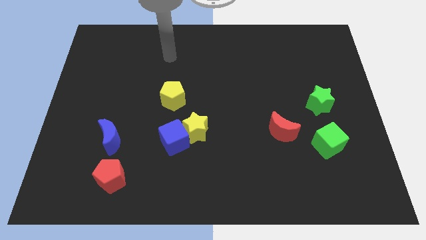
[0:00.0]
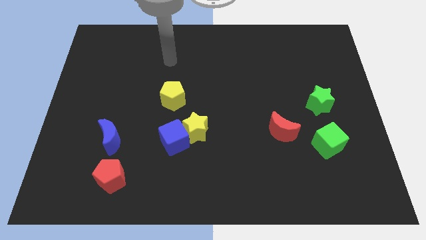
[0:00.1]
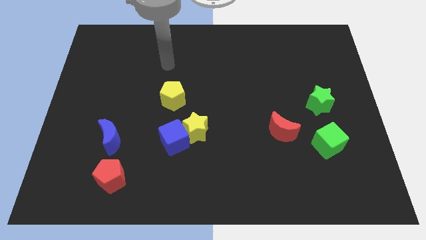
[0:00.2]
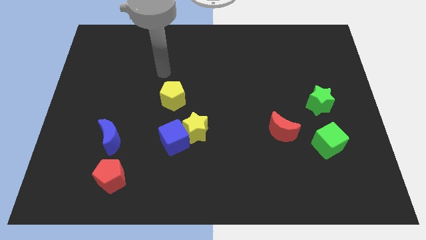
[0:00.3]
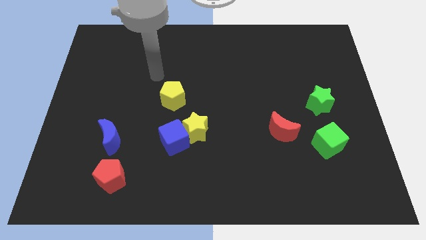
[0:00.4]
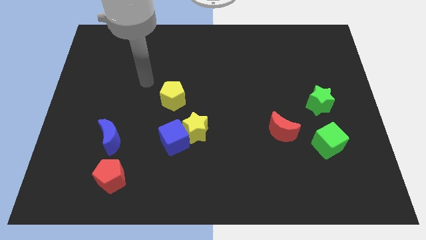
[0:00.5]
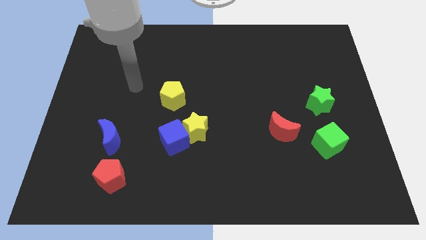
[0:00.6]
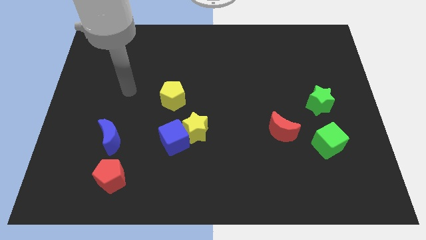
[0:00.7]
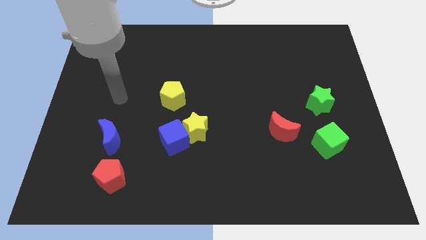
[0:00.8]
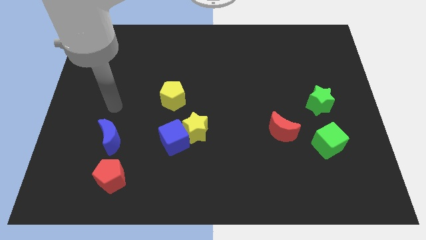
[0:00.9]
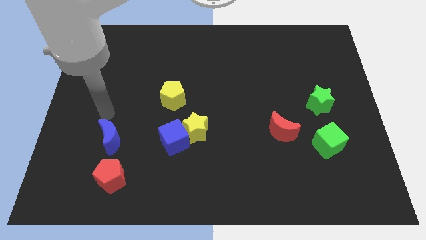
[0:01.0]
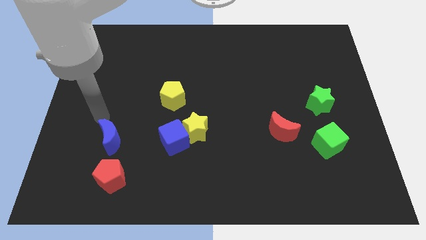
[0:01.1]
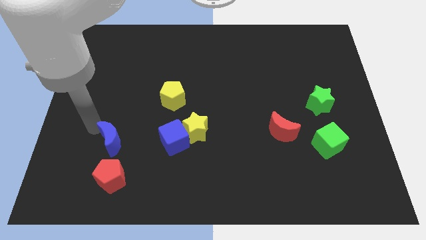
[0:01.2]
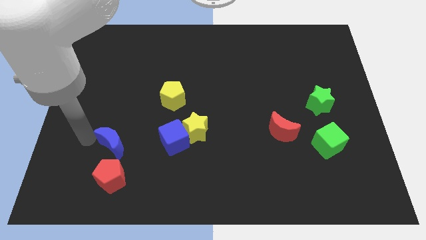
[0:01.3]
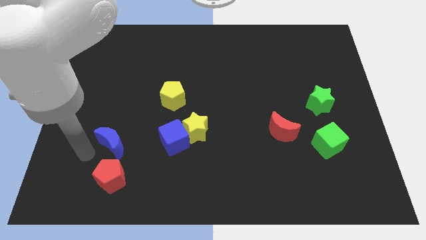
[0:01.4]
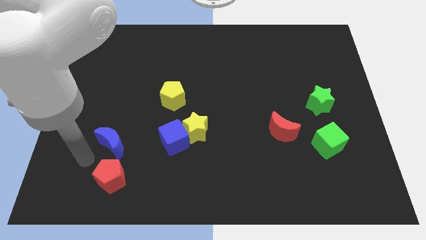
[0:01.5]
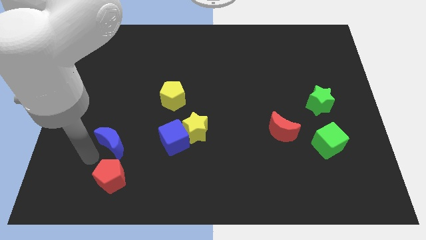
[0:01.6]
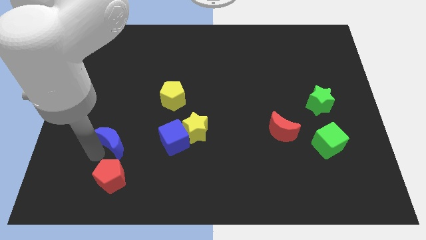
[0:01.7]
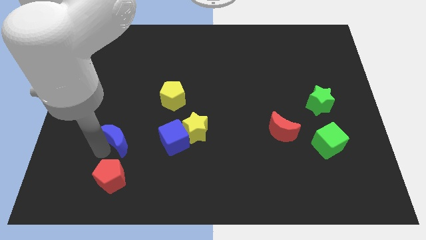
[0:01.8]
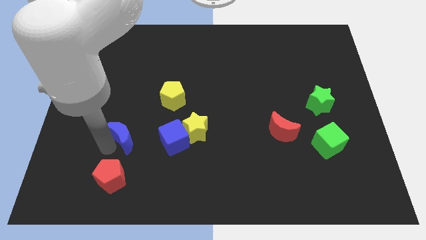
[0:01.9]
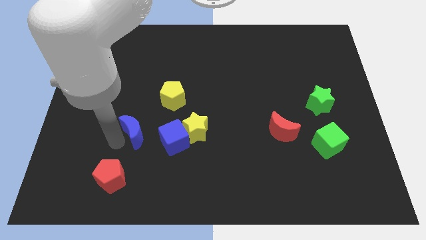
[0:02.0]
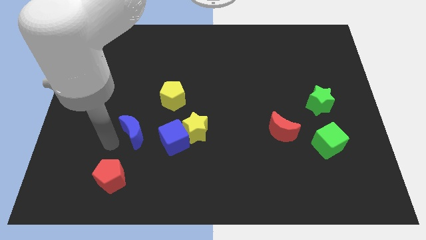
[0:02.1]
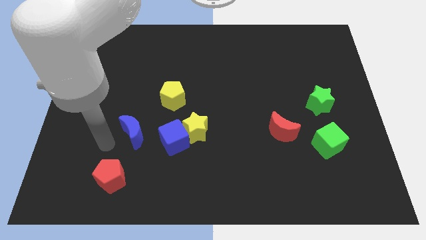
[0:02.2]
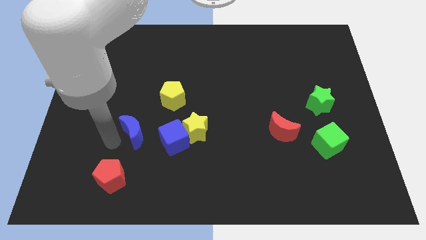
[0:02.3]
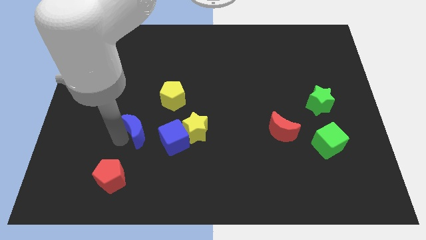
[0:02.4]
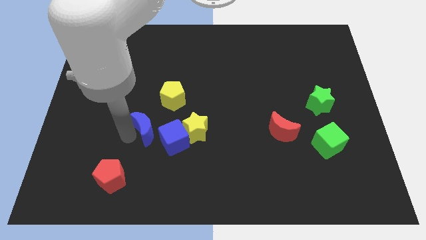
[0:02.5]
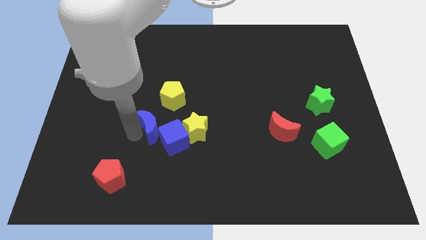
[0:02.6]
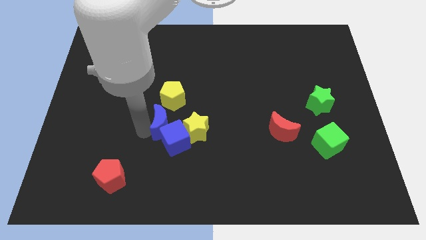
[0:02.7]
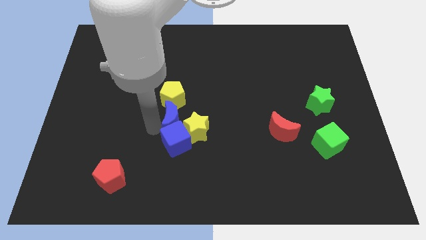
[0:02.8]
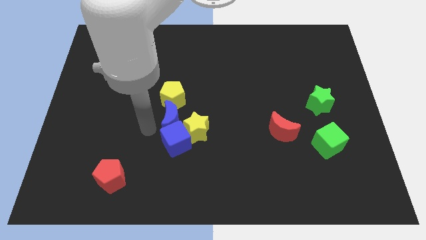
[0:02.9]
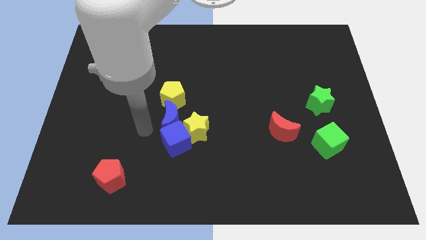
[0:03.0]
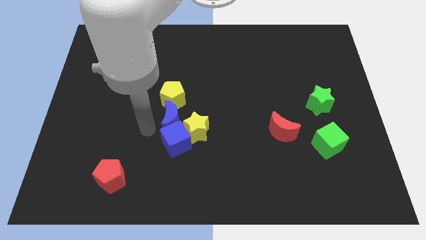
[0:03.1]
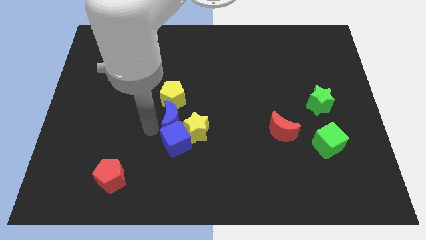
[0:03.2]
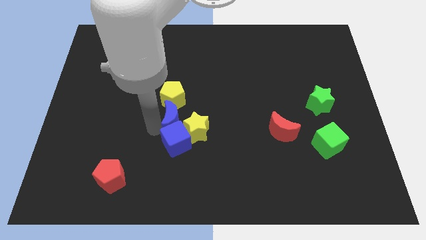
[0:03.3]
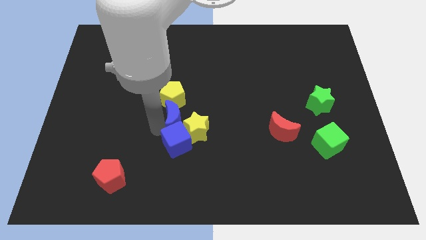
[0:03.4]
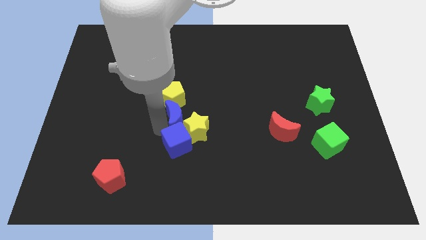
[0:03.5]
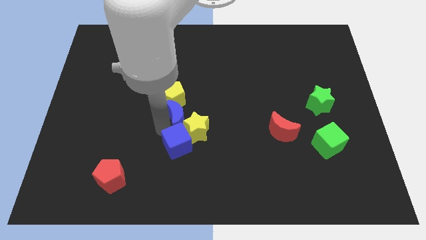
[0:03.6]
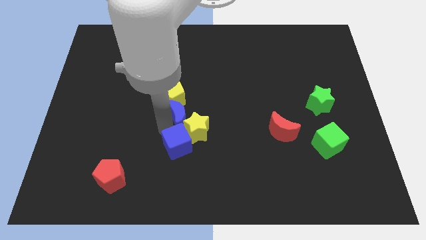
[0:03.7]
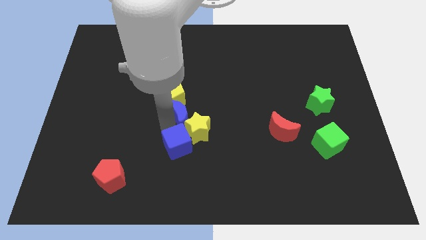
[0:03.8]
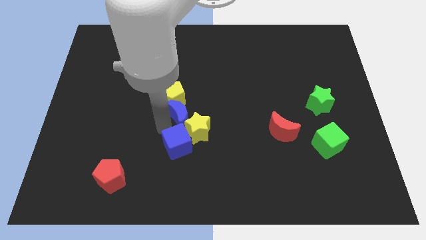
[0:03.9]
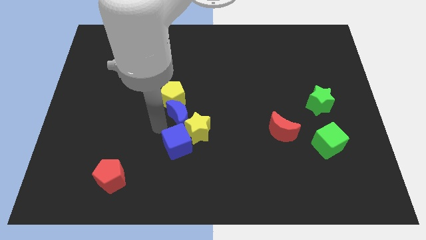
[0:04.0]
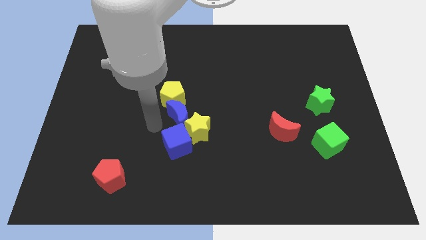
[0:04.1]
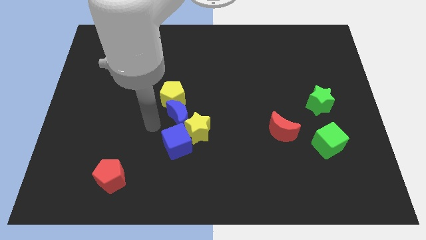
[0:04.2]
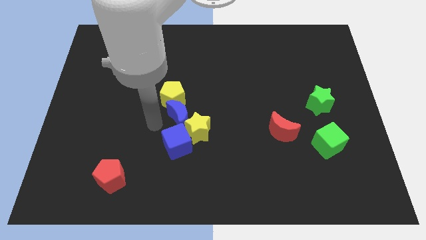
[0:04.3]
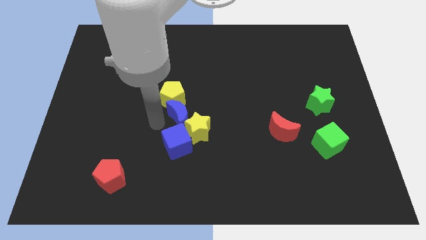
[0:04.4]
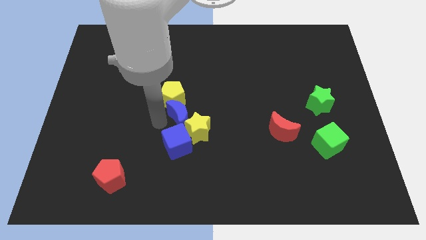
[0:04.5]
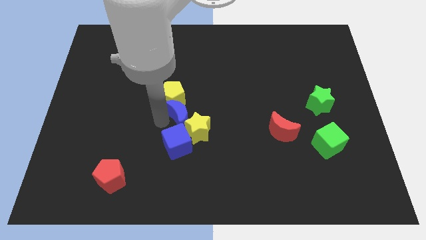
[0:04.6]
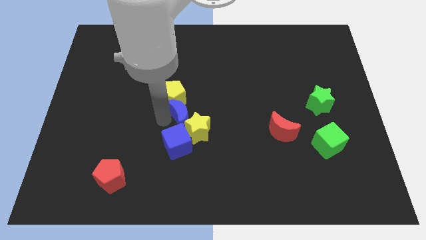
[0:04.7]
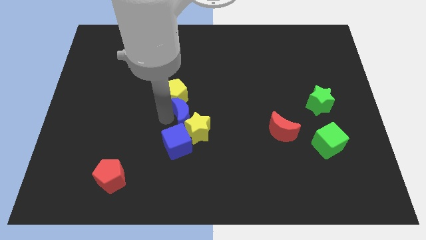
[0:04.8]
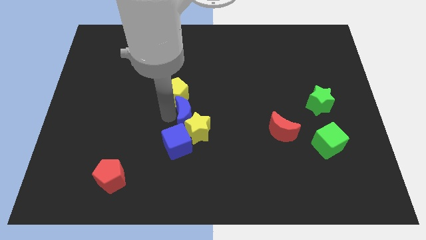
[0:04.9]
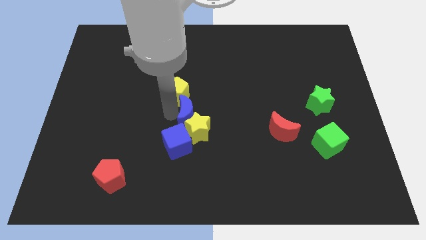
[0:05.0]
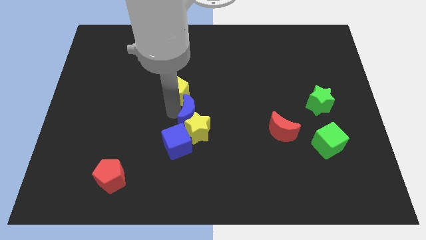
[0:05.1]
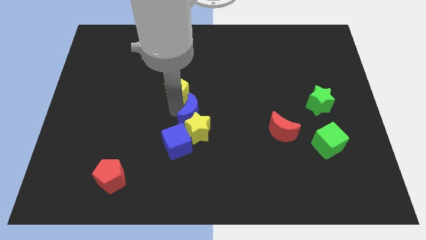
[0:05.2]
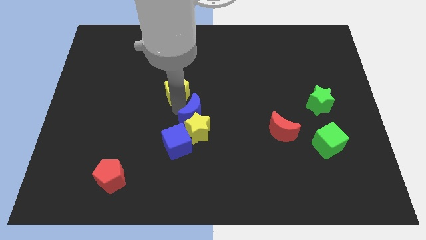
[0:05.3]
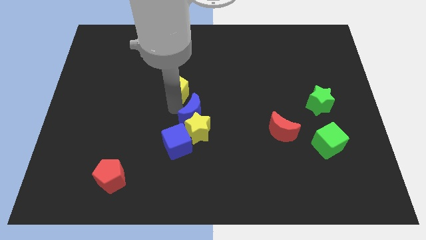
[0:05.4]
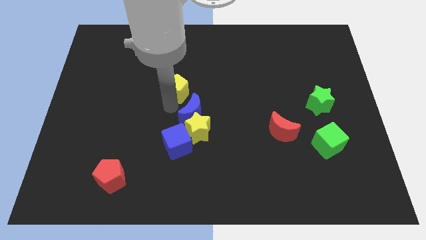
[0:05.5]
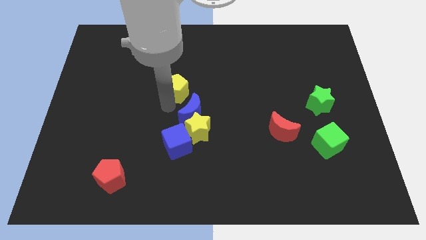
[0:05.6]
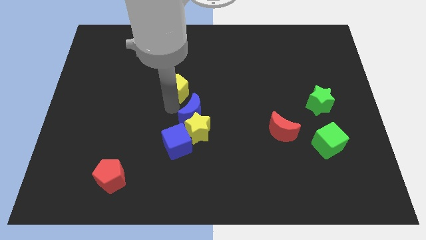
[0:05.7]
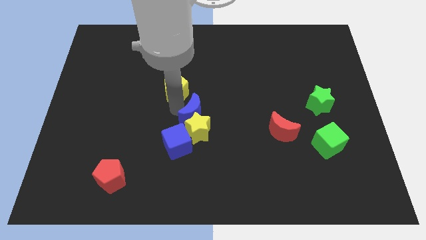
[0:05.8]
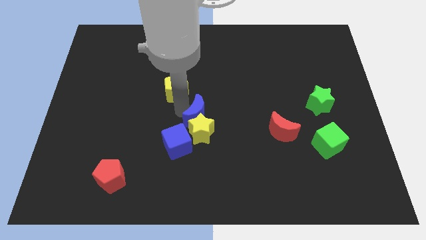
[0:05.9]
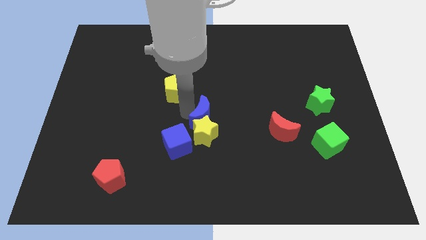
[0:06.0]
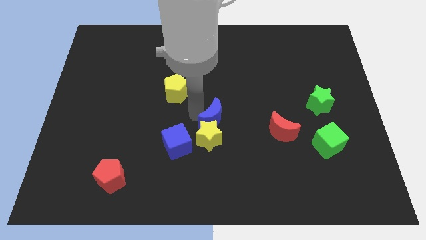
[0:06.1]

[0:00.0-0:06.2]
push the blue moon right

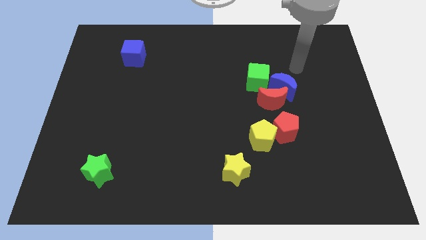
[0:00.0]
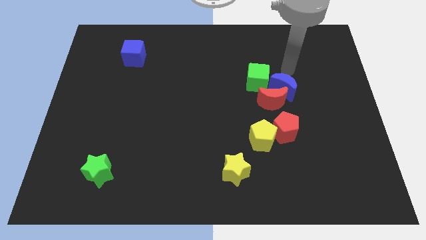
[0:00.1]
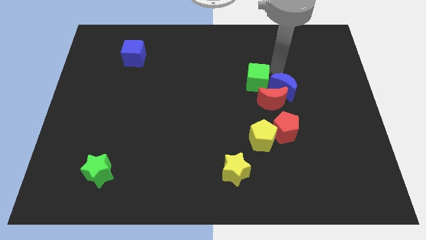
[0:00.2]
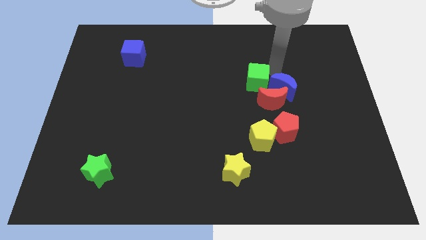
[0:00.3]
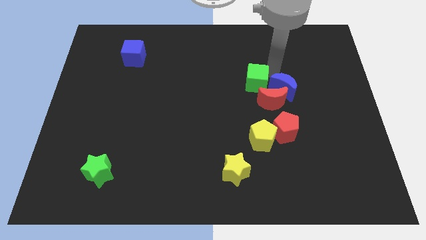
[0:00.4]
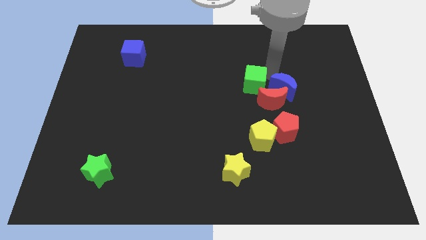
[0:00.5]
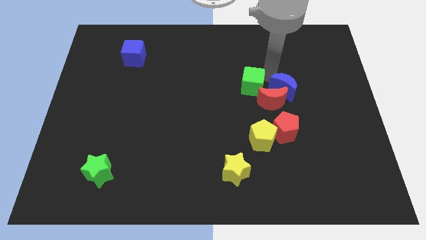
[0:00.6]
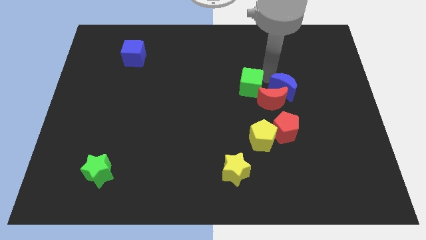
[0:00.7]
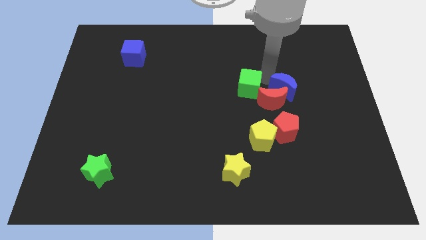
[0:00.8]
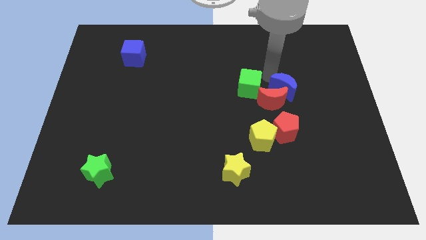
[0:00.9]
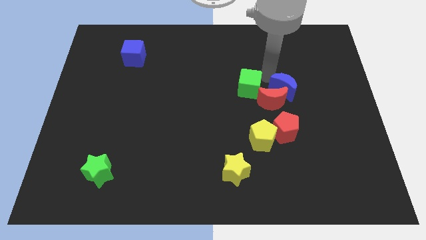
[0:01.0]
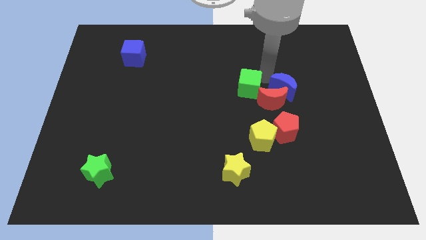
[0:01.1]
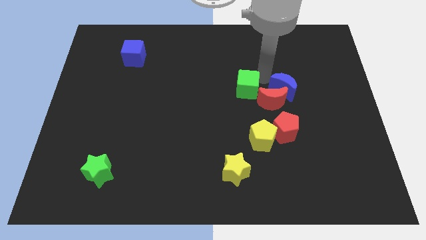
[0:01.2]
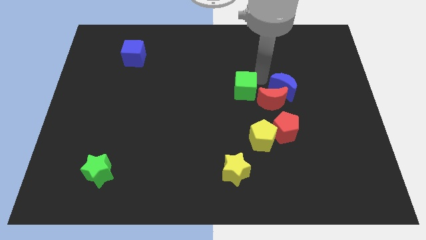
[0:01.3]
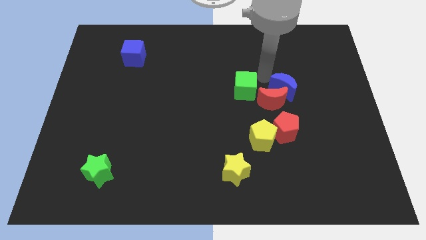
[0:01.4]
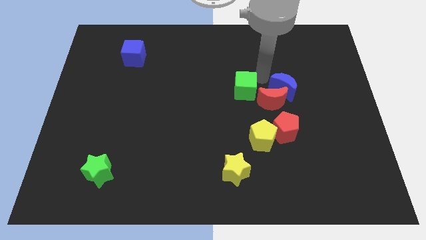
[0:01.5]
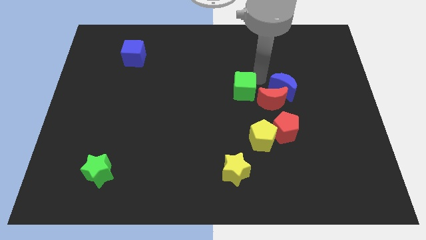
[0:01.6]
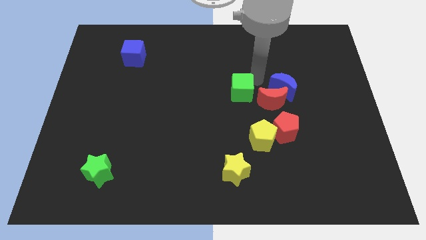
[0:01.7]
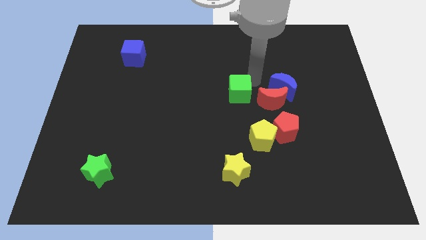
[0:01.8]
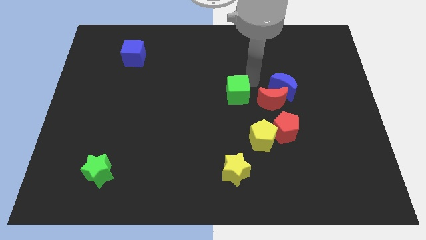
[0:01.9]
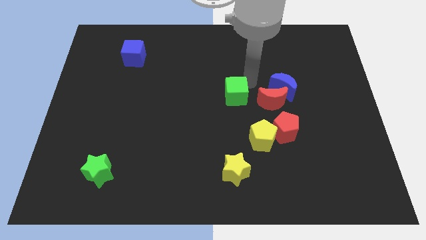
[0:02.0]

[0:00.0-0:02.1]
slightly push the green cube diagonally downwards and left
